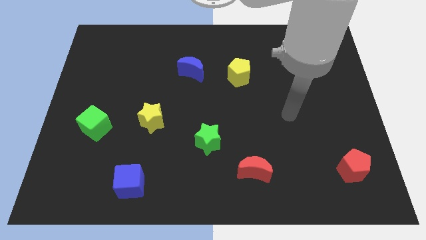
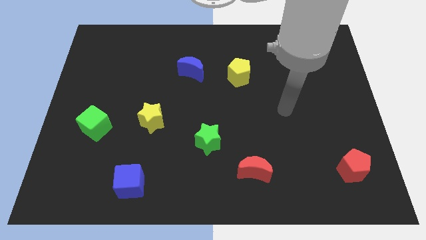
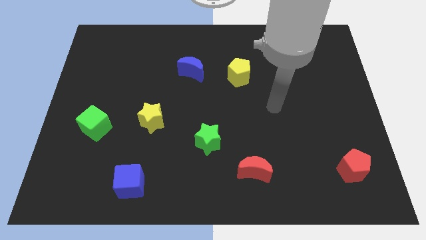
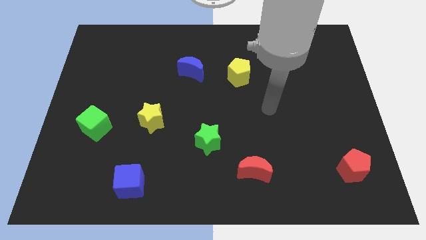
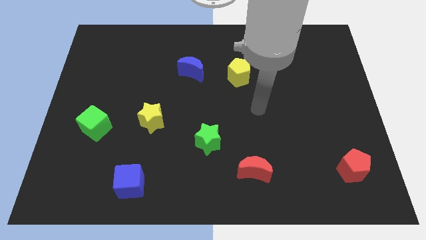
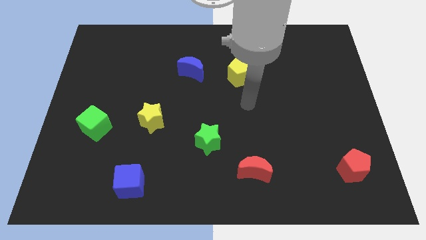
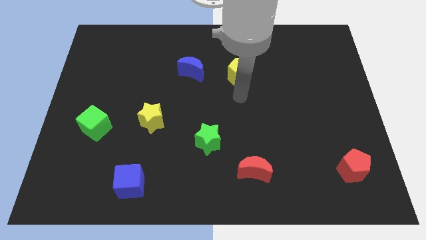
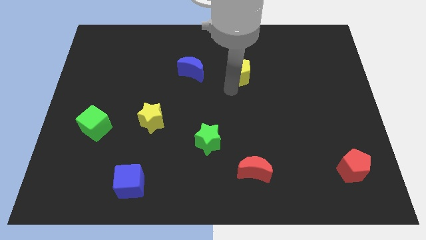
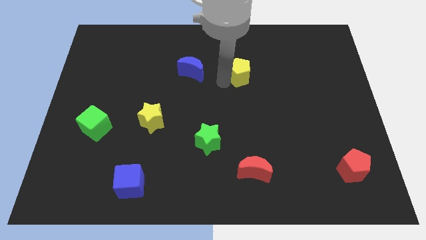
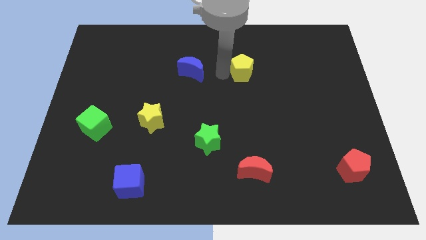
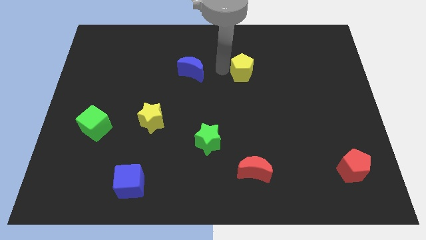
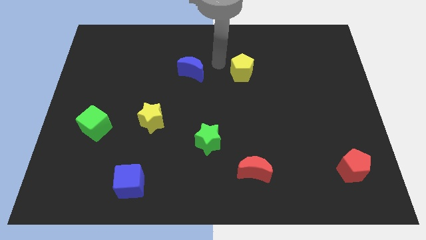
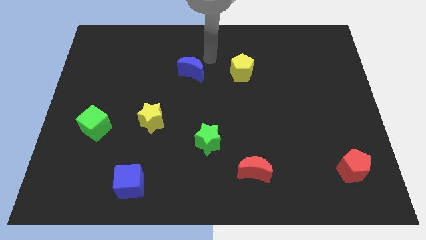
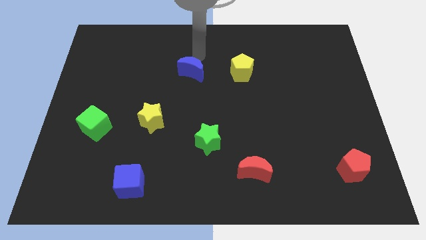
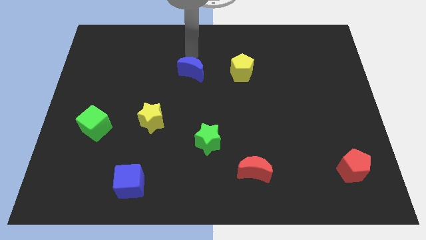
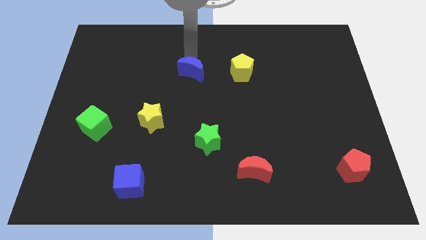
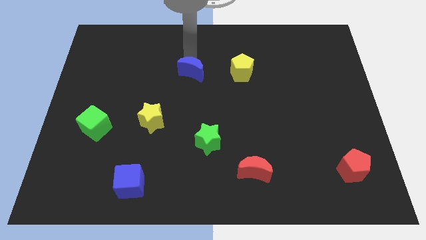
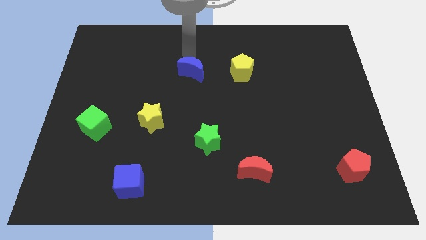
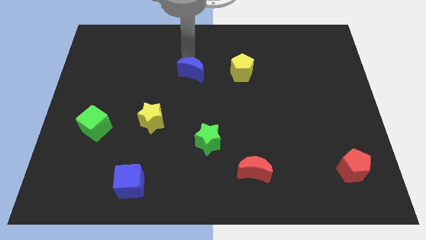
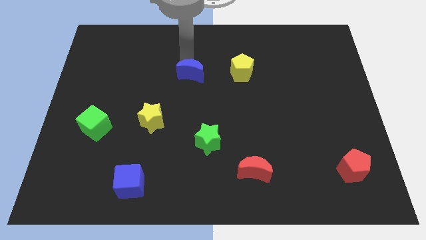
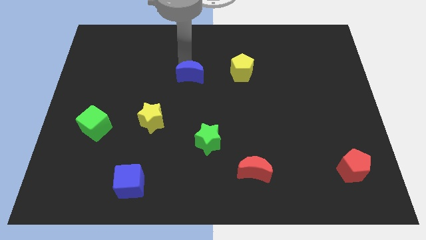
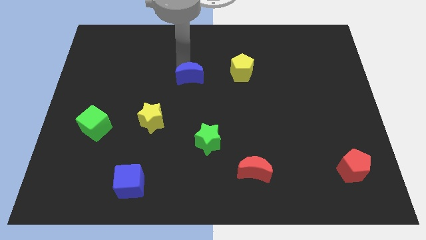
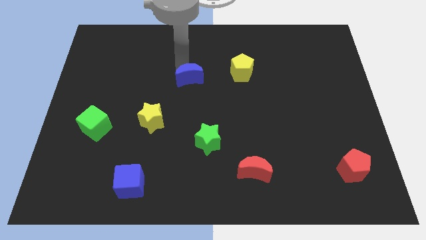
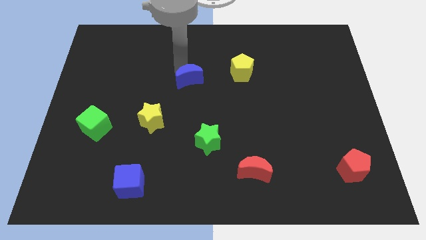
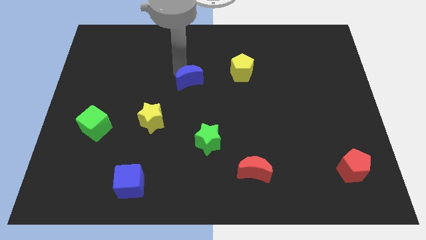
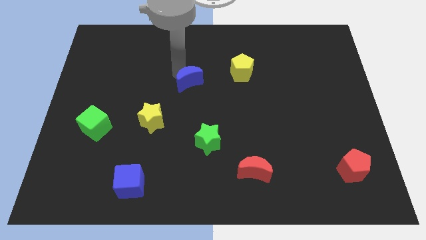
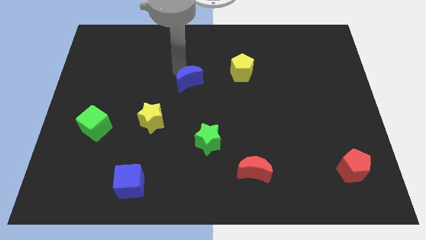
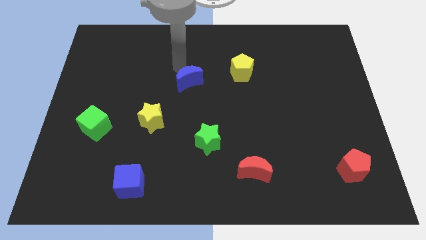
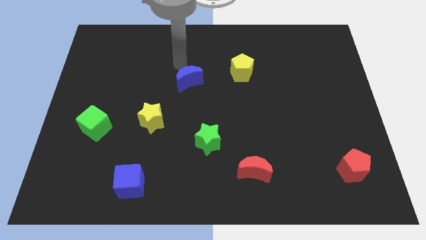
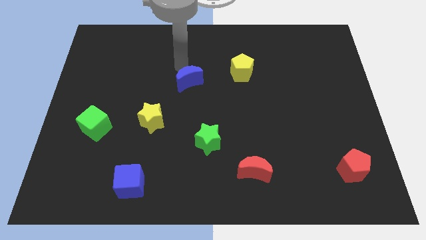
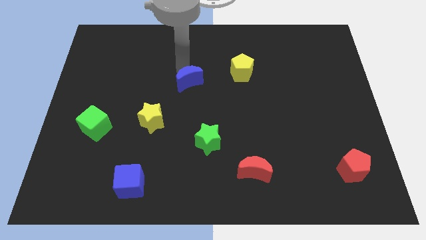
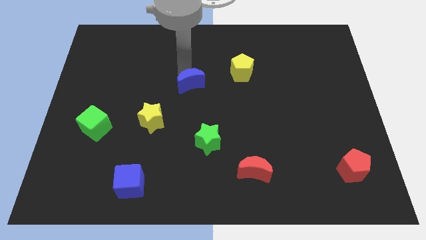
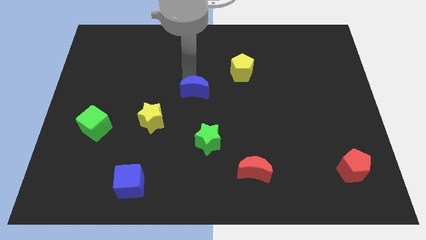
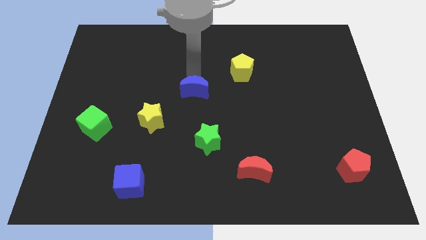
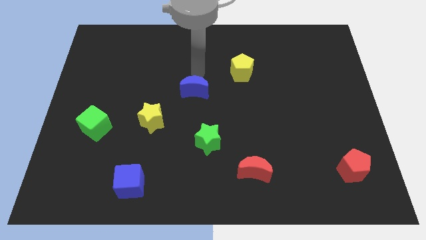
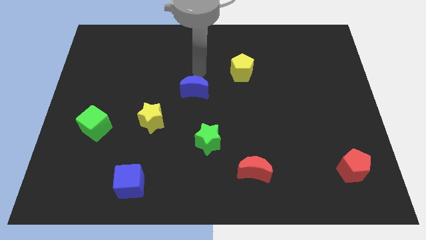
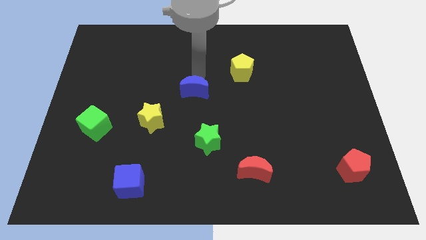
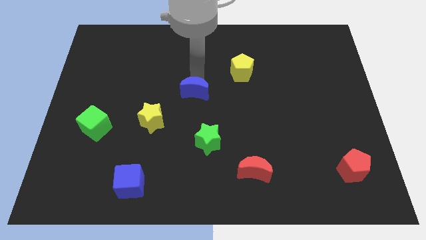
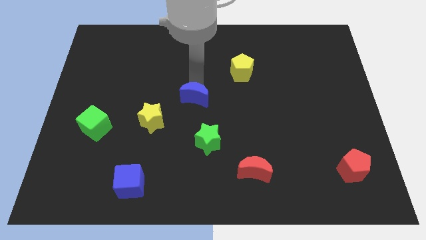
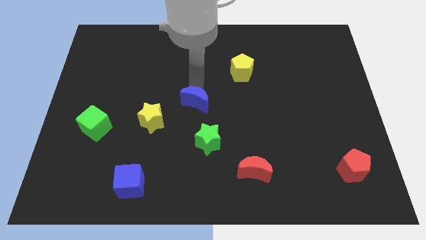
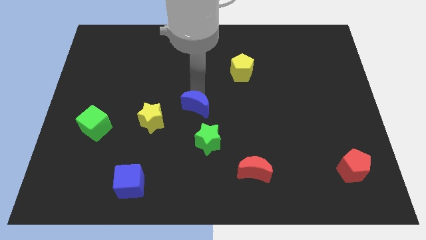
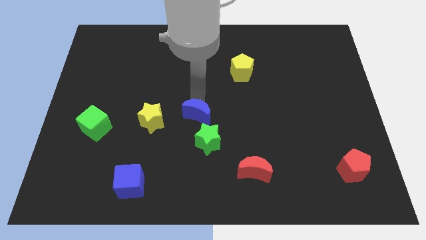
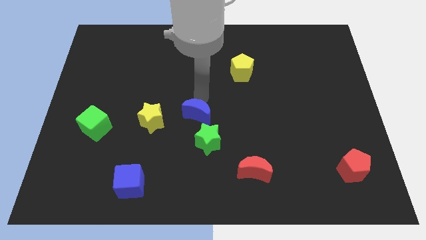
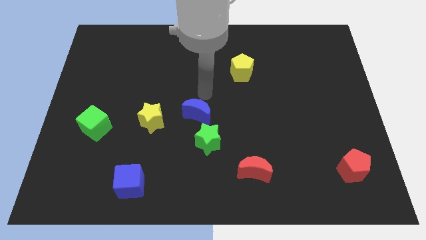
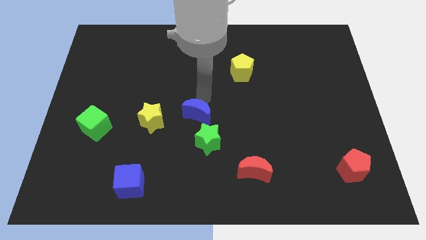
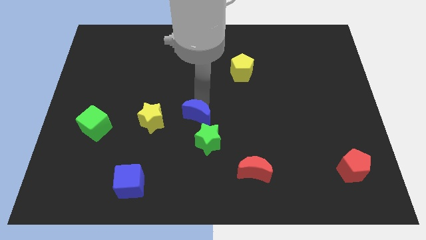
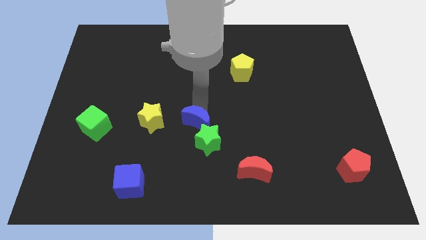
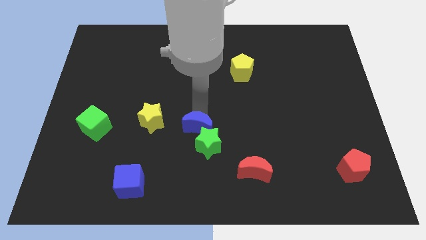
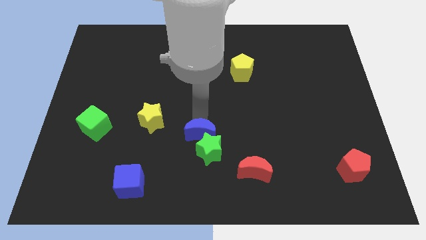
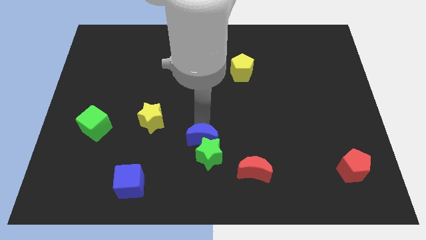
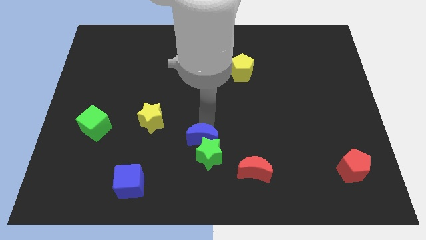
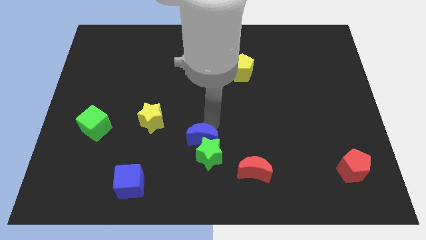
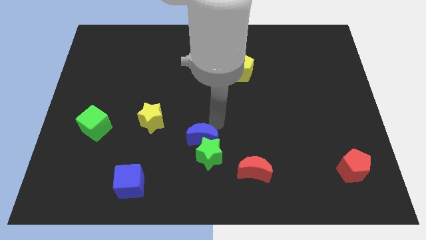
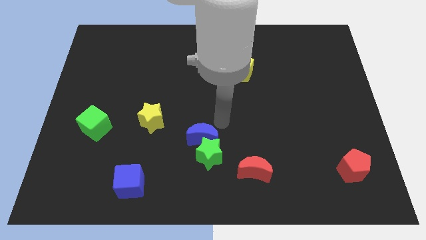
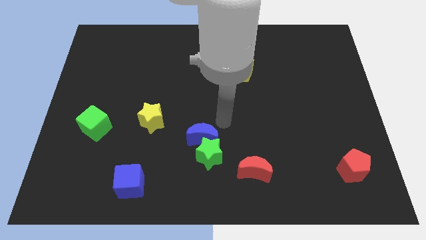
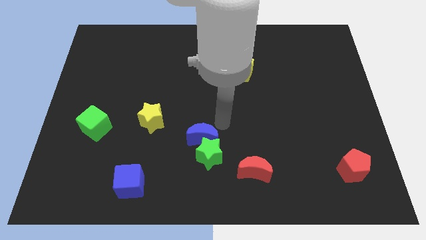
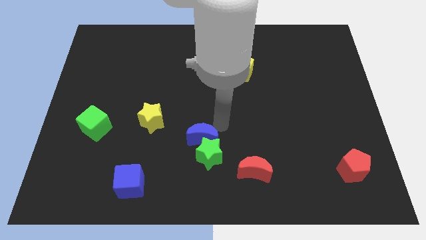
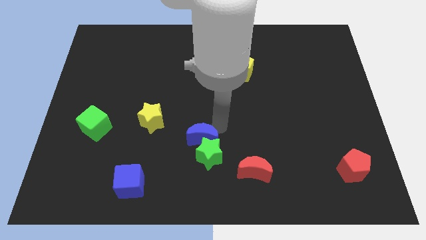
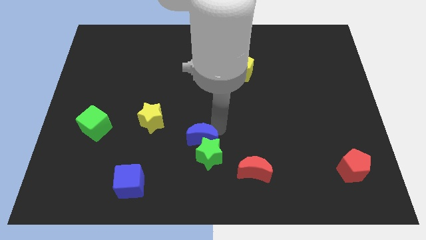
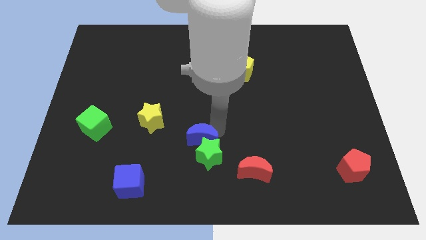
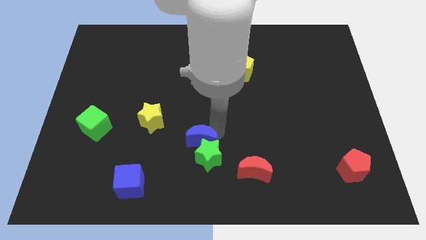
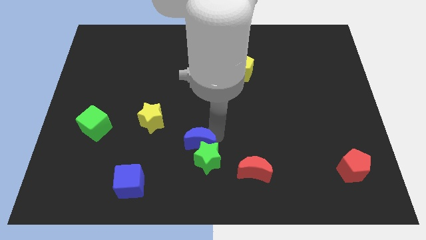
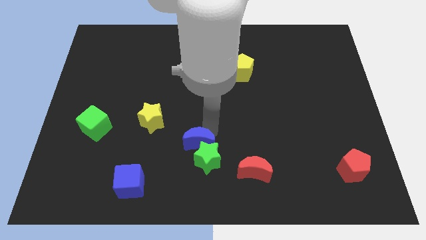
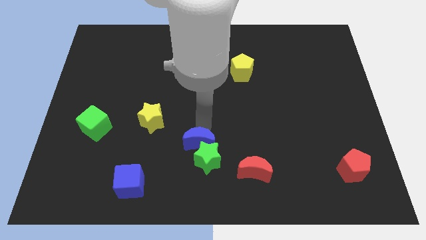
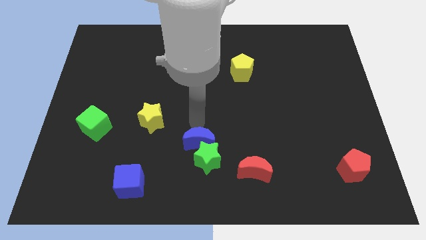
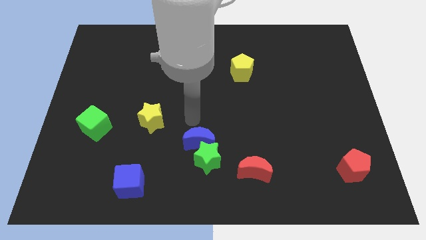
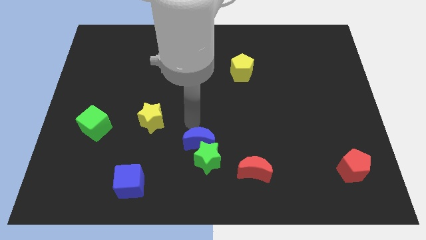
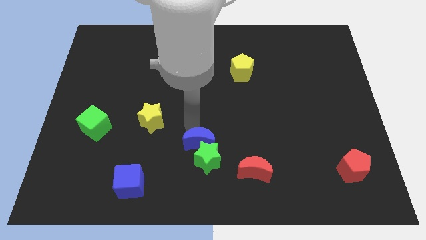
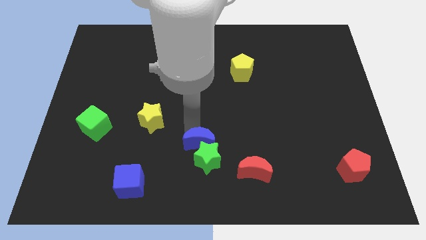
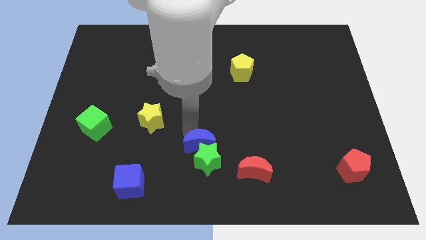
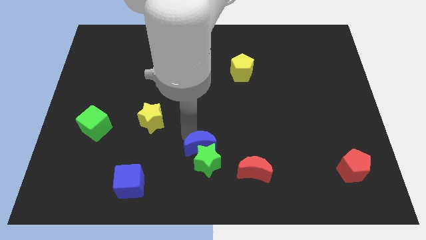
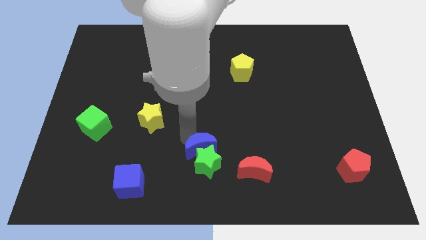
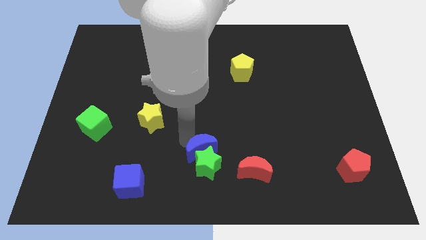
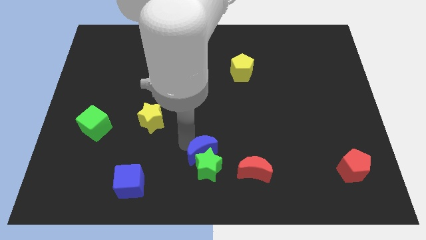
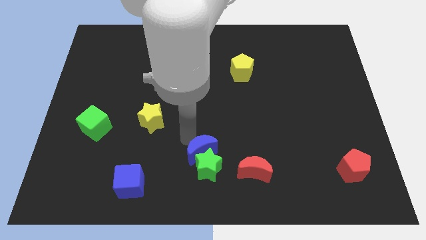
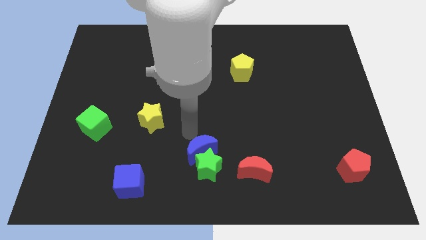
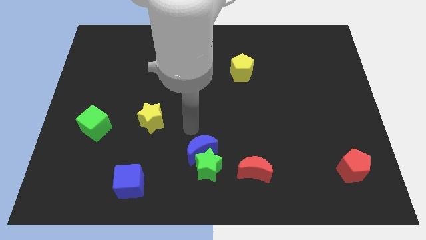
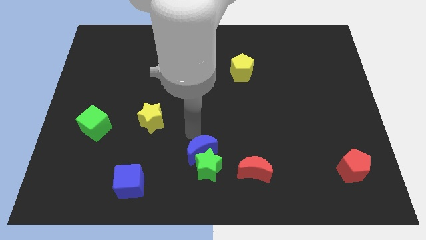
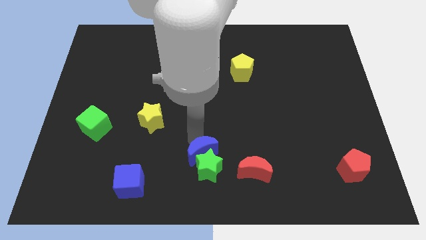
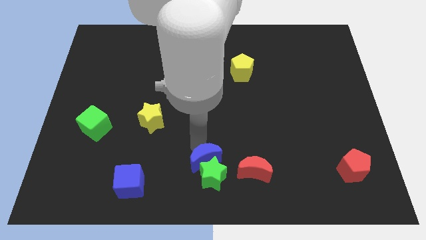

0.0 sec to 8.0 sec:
slide the blue moon to the bottom side
